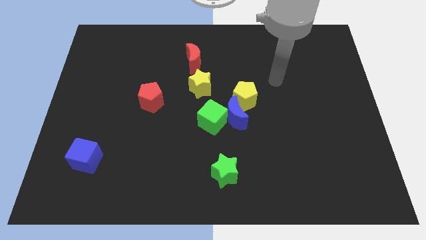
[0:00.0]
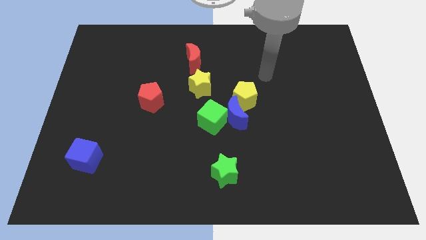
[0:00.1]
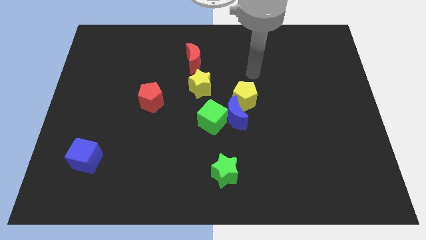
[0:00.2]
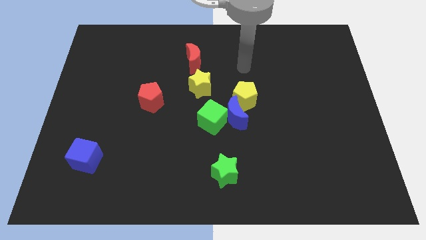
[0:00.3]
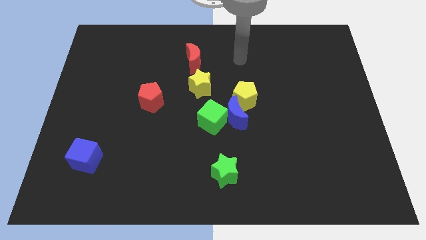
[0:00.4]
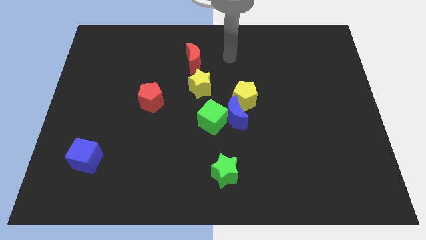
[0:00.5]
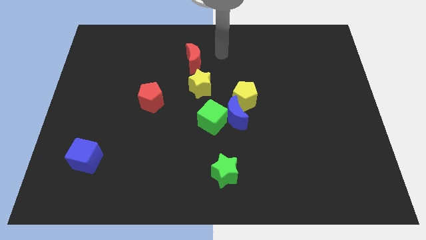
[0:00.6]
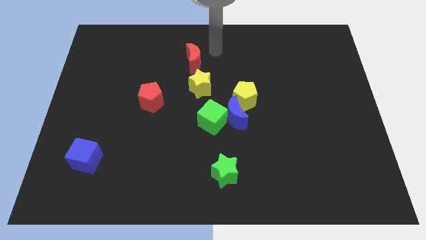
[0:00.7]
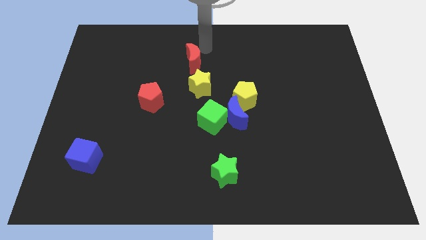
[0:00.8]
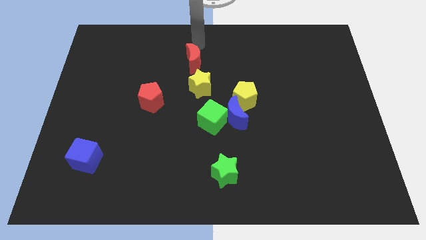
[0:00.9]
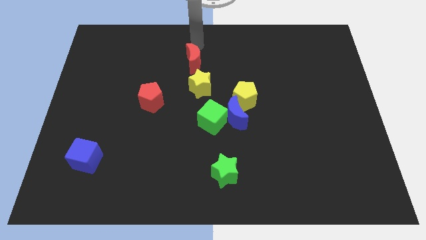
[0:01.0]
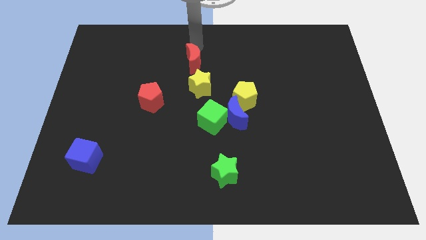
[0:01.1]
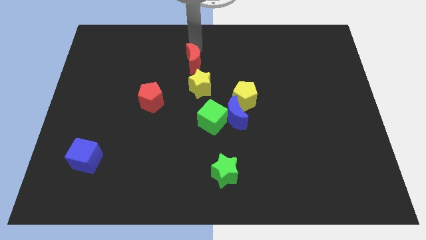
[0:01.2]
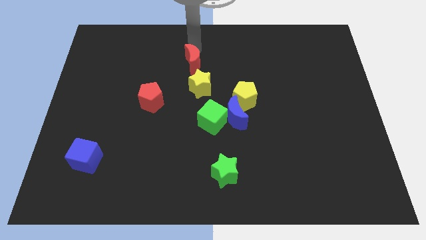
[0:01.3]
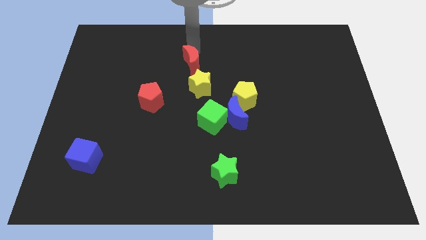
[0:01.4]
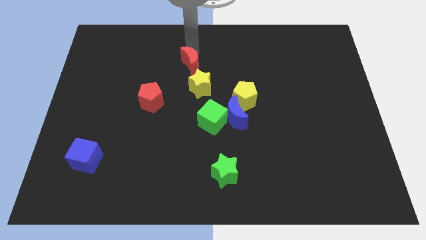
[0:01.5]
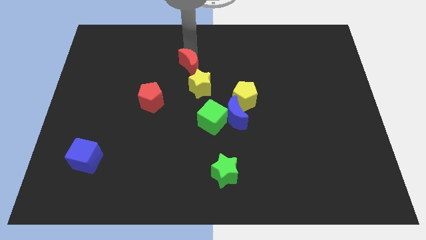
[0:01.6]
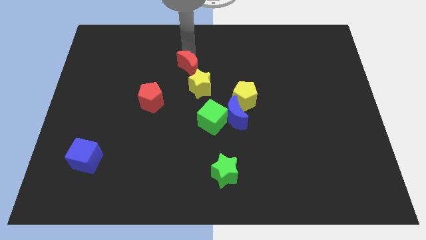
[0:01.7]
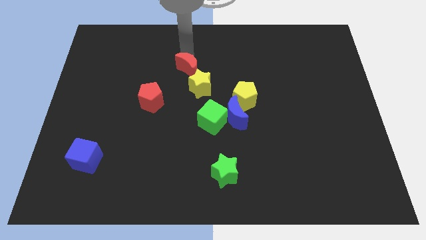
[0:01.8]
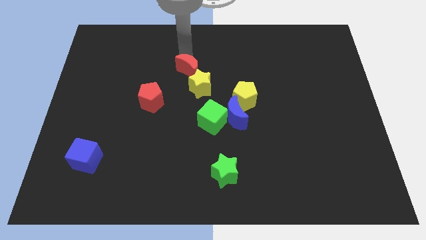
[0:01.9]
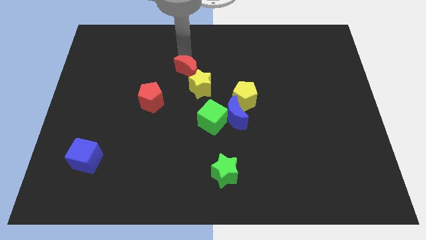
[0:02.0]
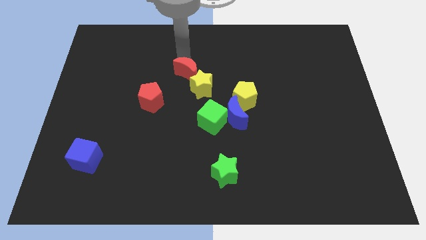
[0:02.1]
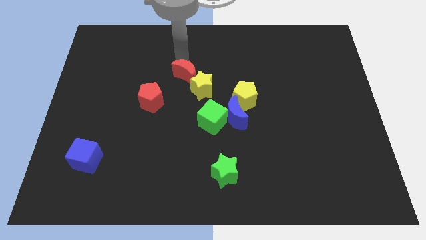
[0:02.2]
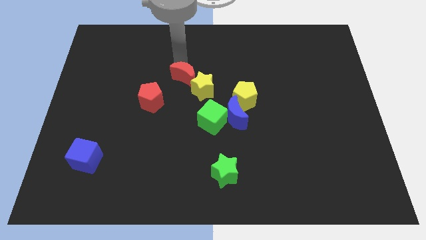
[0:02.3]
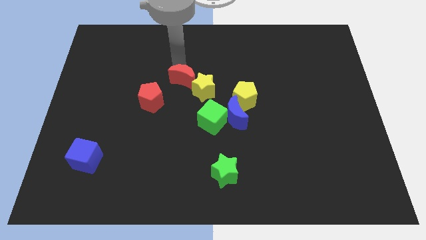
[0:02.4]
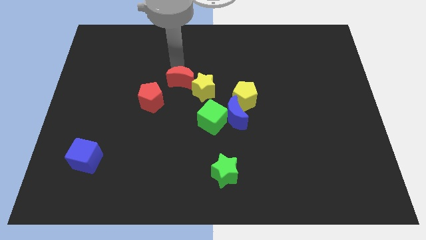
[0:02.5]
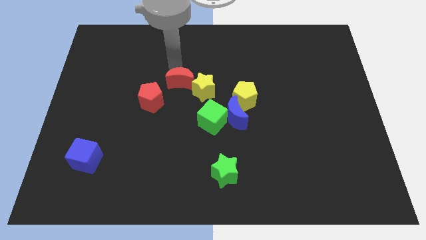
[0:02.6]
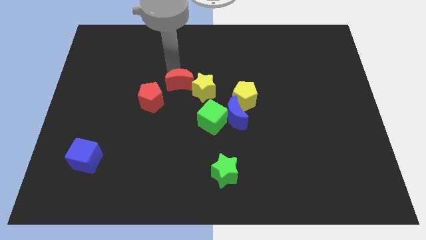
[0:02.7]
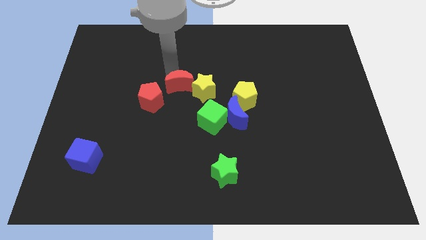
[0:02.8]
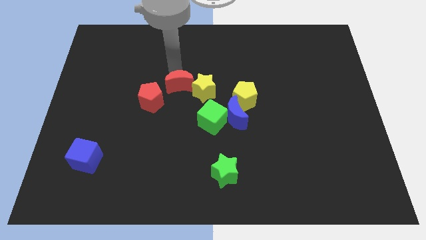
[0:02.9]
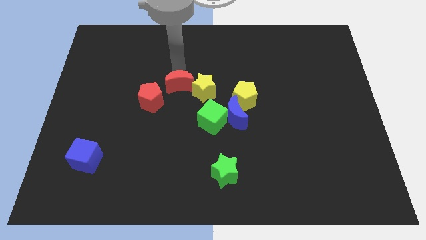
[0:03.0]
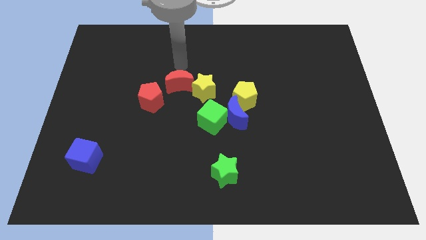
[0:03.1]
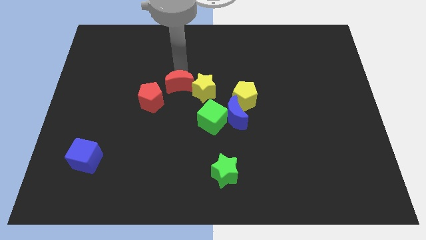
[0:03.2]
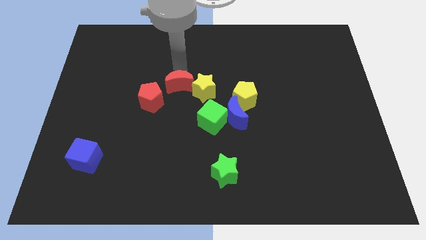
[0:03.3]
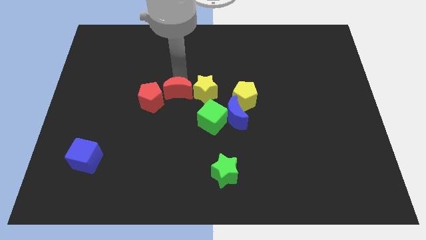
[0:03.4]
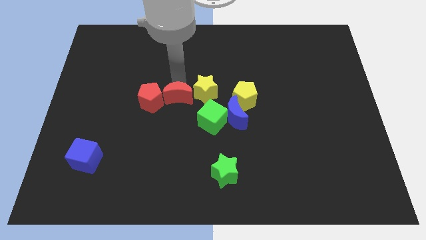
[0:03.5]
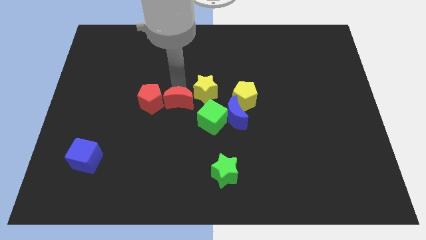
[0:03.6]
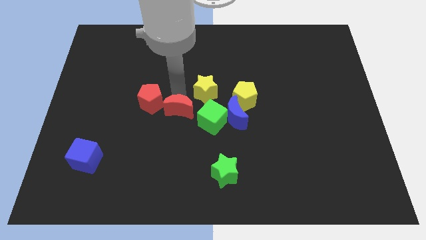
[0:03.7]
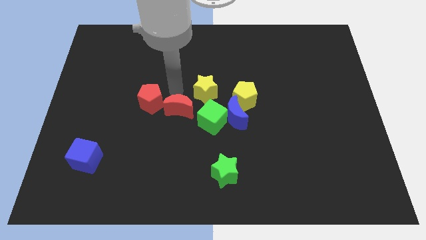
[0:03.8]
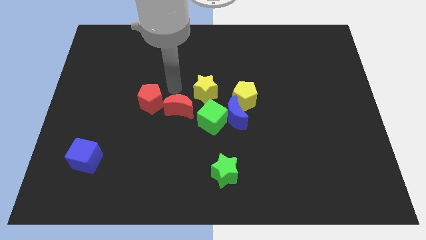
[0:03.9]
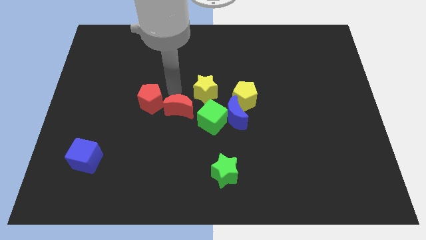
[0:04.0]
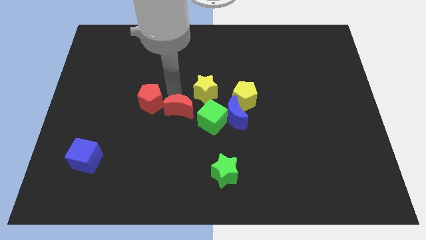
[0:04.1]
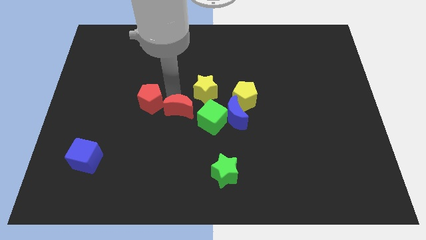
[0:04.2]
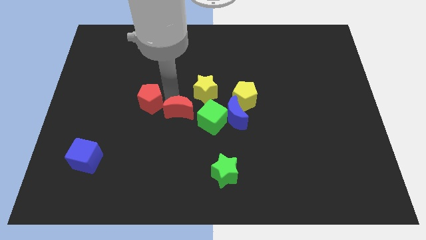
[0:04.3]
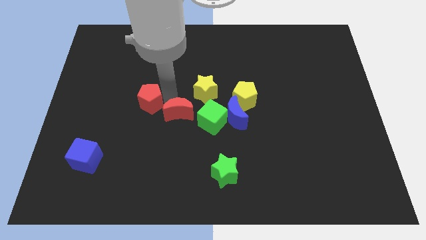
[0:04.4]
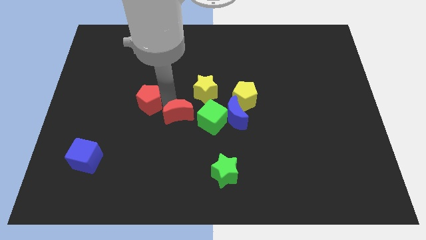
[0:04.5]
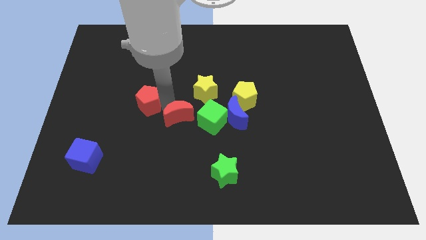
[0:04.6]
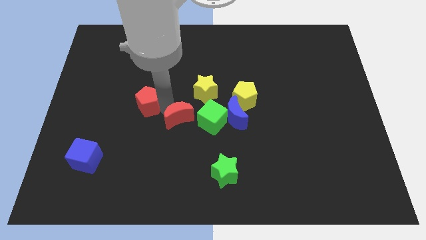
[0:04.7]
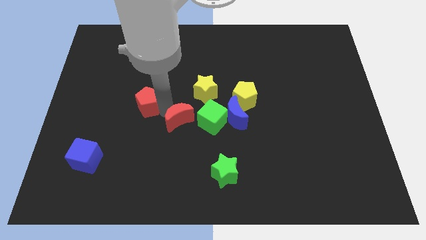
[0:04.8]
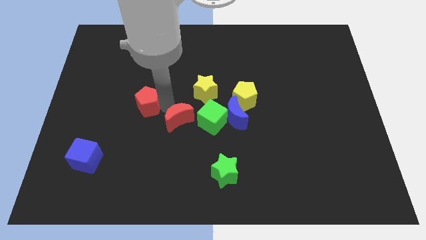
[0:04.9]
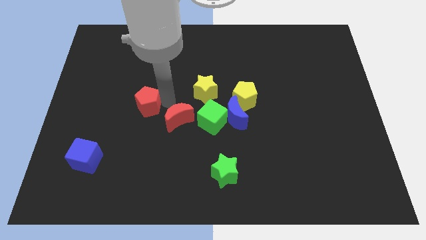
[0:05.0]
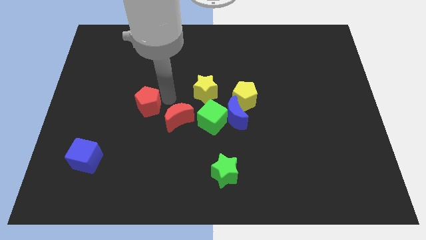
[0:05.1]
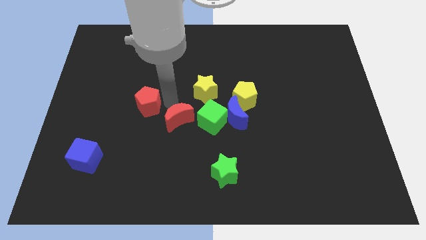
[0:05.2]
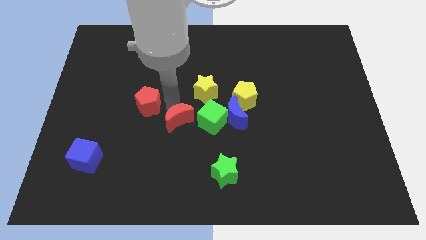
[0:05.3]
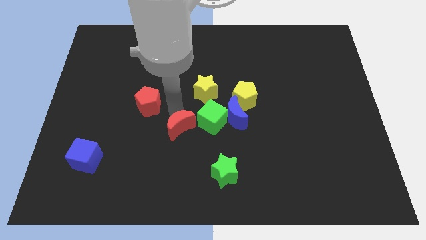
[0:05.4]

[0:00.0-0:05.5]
push the red moon to the bottom left side of the green cube

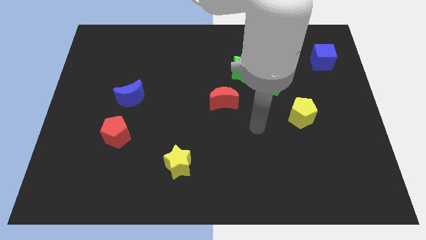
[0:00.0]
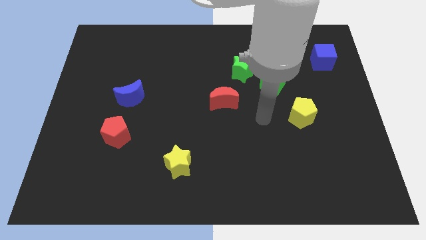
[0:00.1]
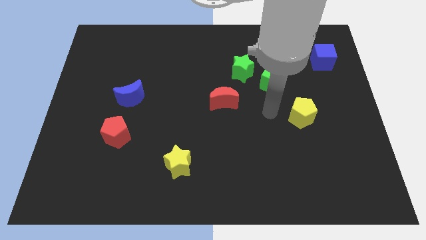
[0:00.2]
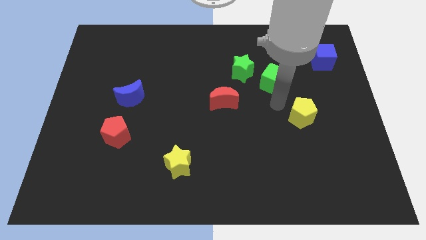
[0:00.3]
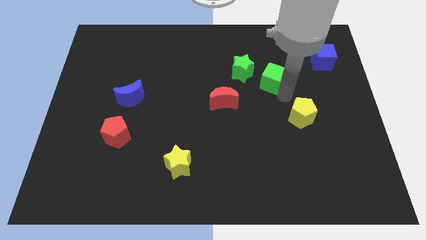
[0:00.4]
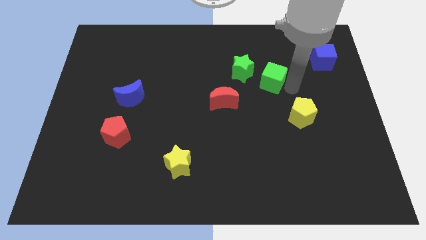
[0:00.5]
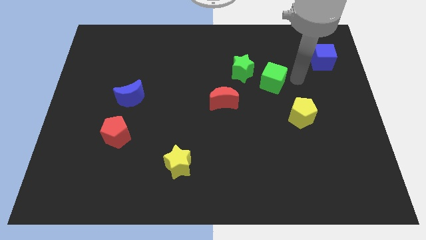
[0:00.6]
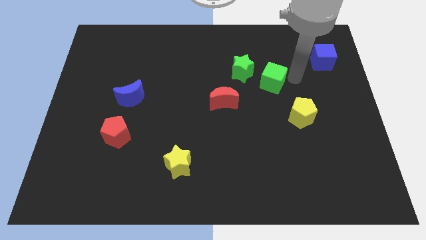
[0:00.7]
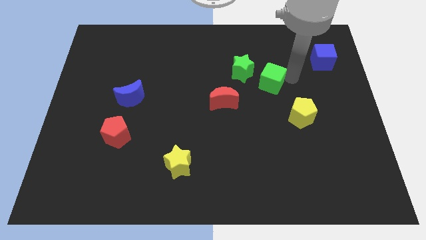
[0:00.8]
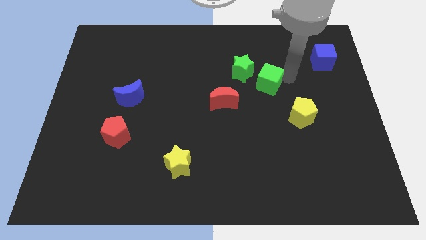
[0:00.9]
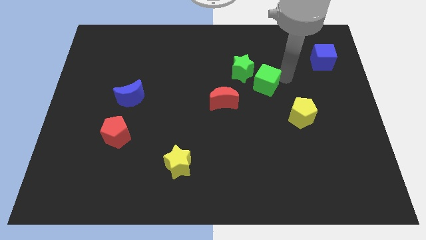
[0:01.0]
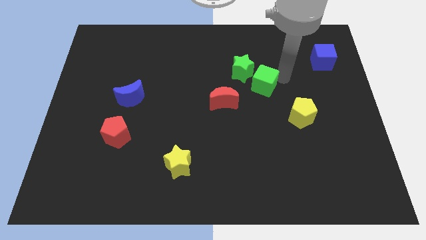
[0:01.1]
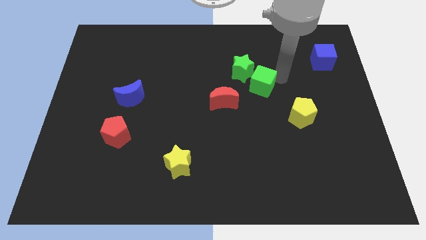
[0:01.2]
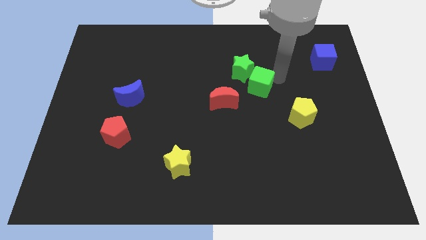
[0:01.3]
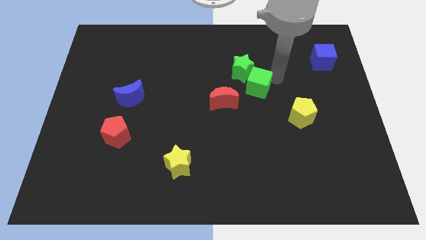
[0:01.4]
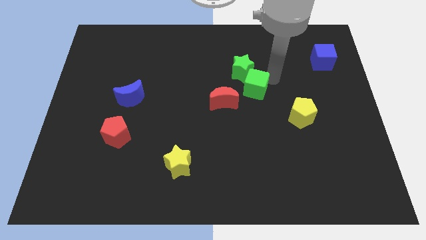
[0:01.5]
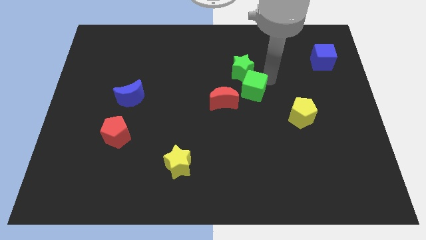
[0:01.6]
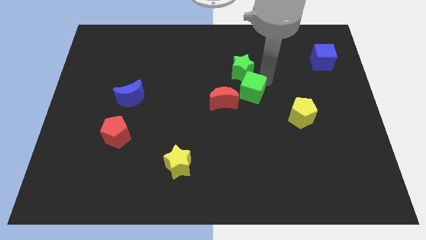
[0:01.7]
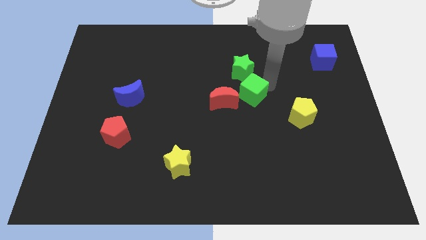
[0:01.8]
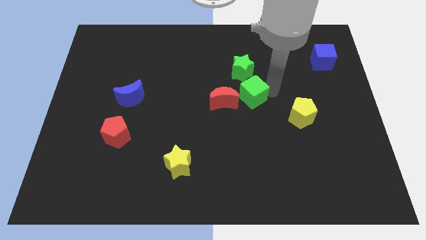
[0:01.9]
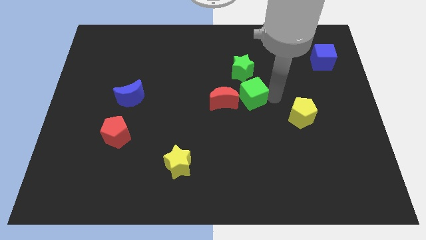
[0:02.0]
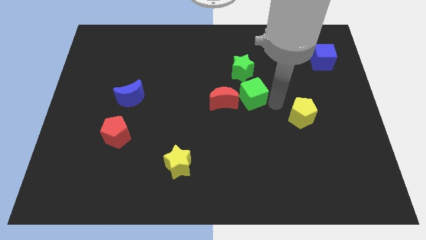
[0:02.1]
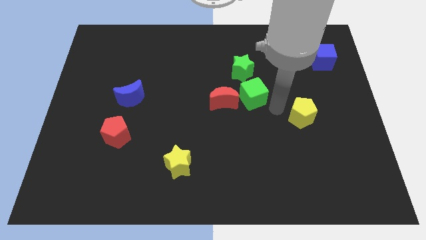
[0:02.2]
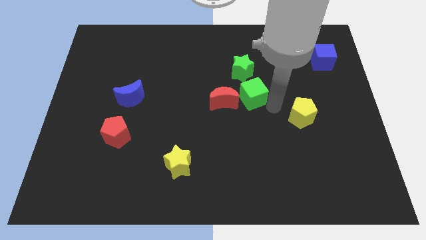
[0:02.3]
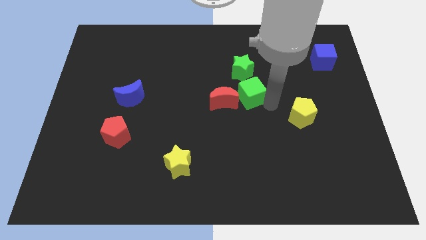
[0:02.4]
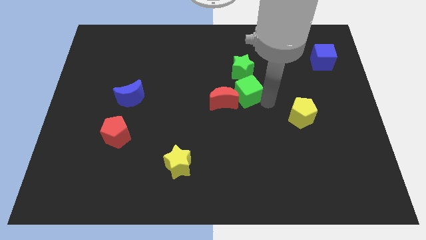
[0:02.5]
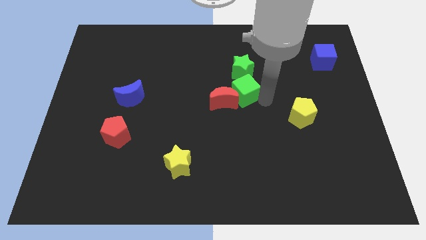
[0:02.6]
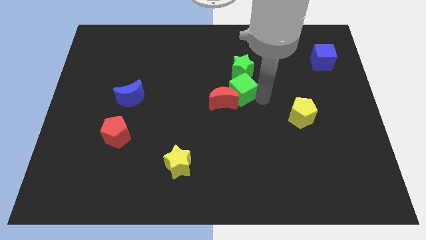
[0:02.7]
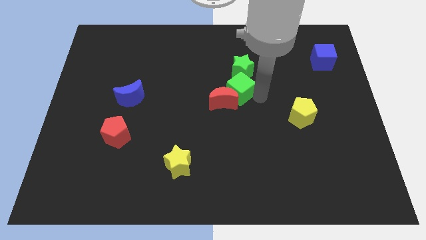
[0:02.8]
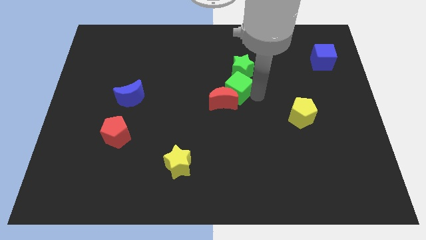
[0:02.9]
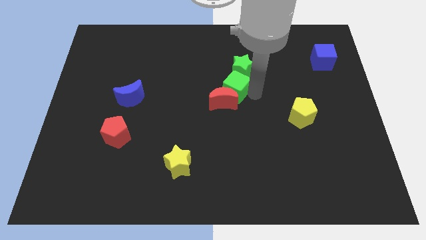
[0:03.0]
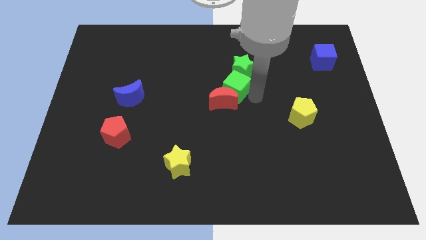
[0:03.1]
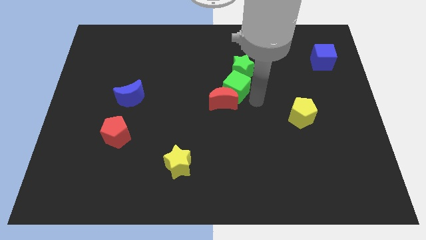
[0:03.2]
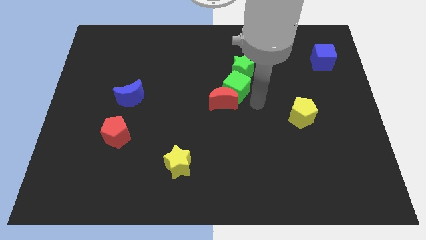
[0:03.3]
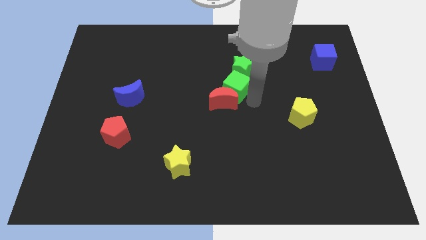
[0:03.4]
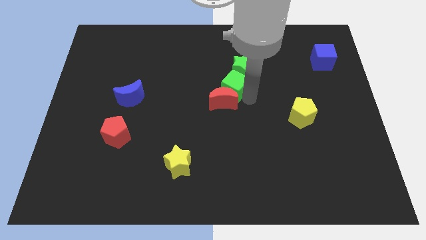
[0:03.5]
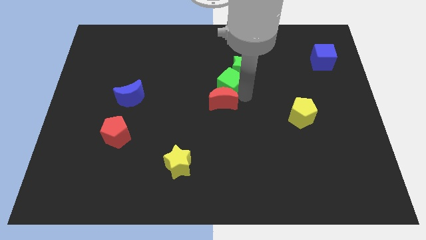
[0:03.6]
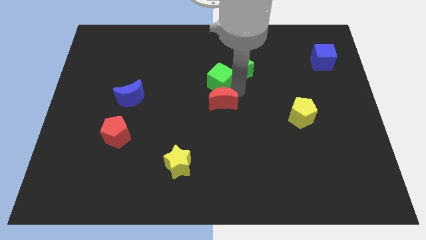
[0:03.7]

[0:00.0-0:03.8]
slide the green cube to the left of the green star
